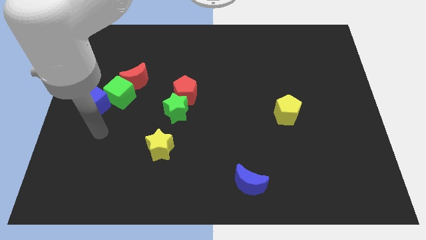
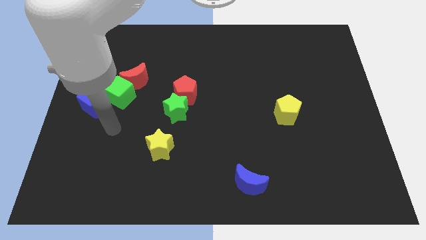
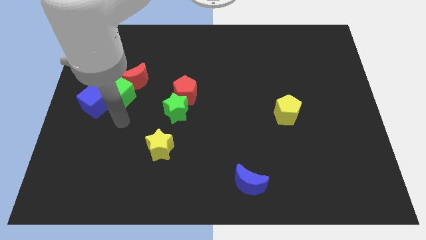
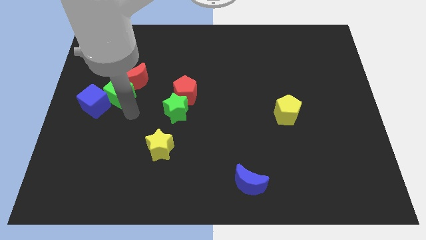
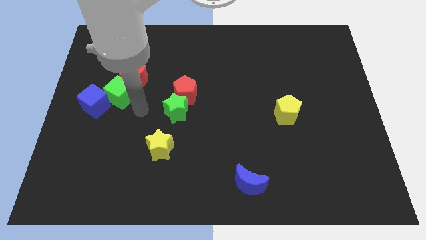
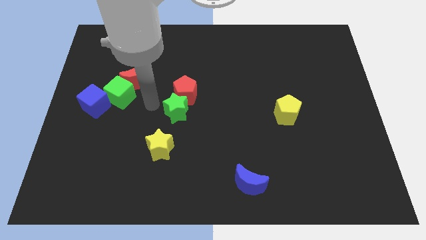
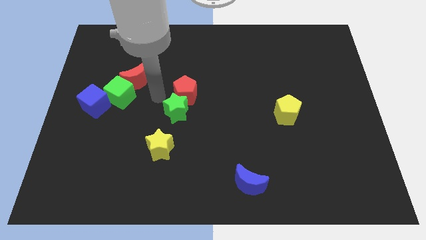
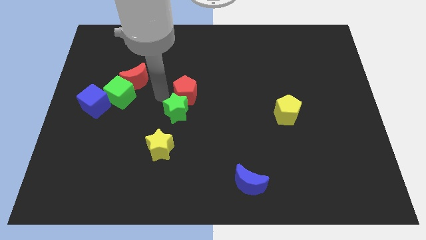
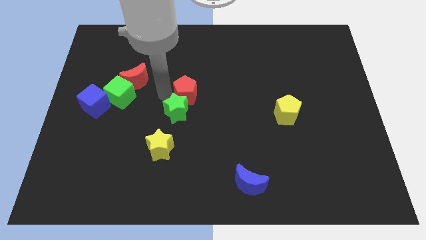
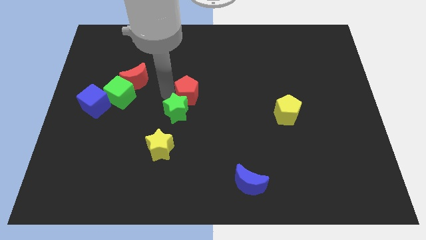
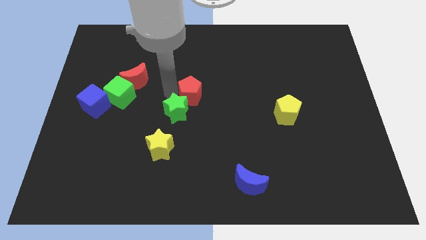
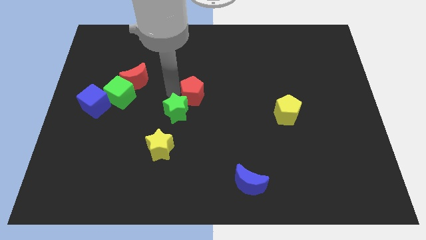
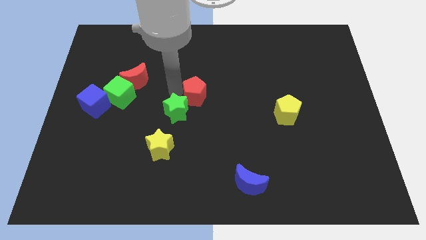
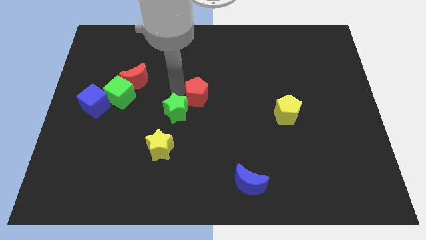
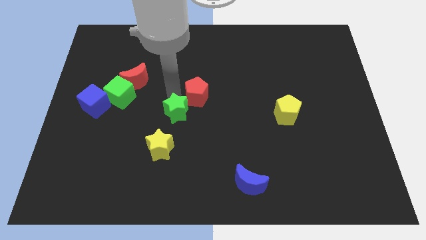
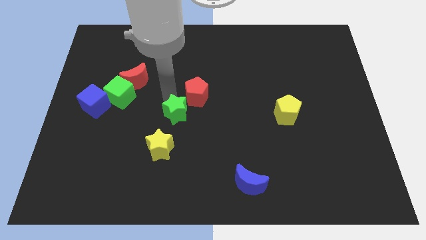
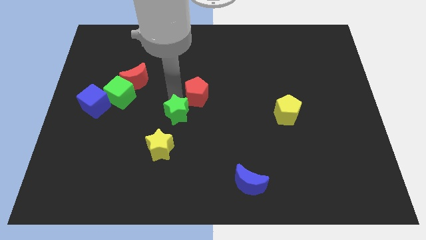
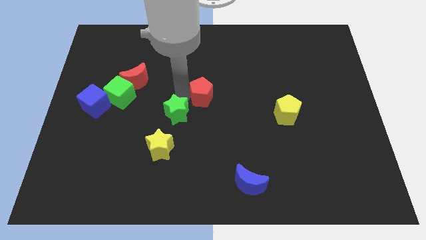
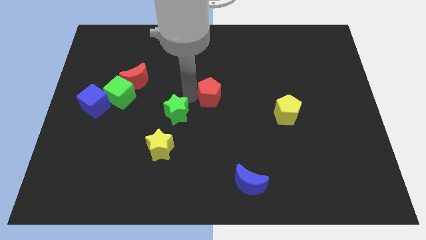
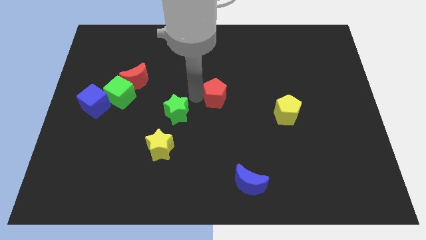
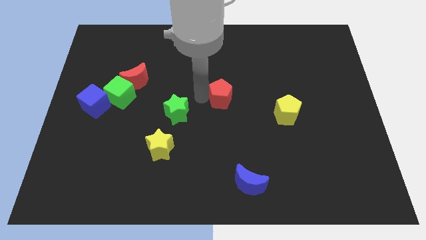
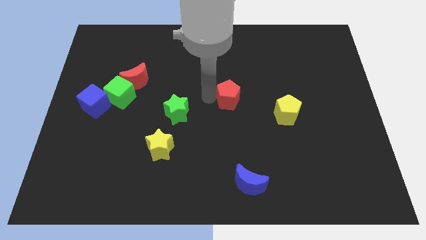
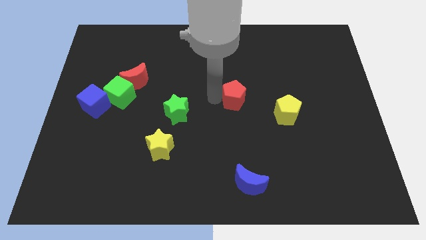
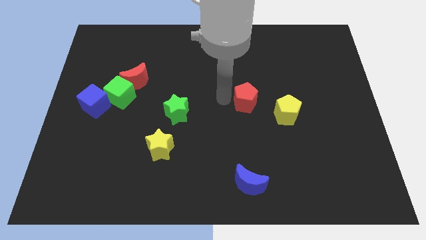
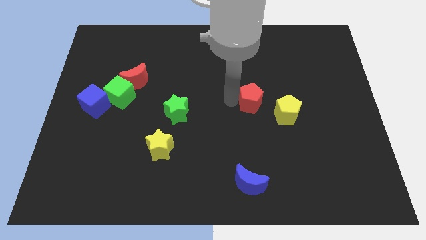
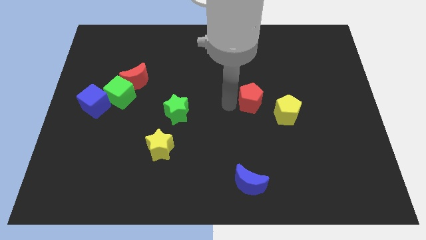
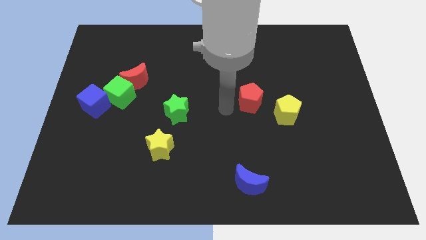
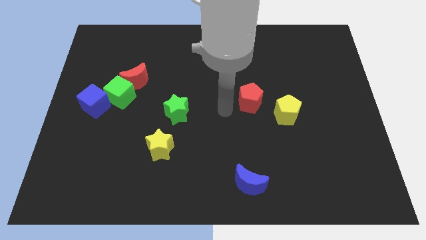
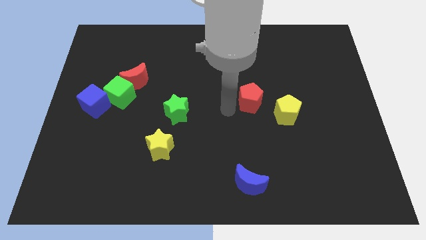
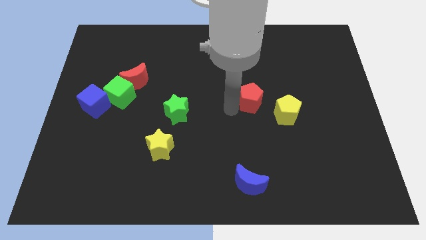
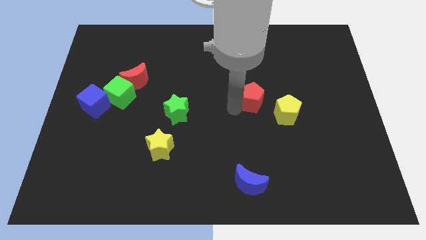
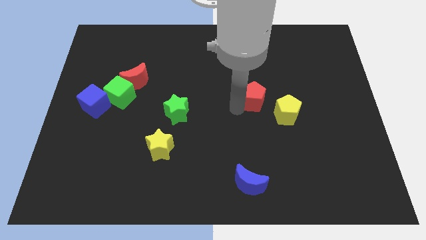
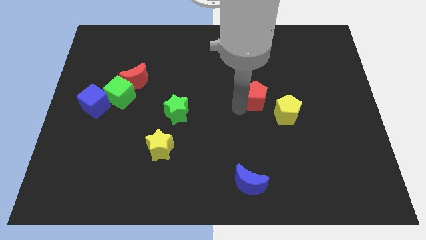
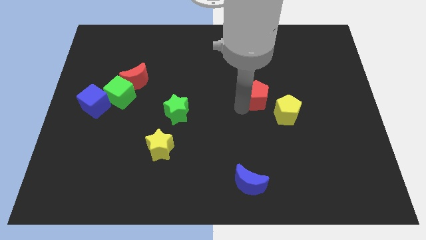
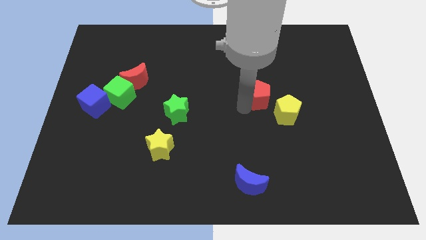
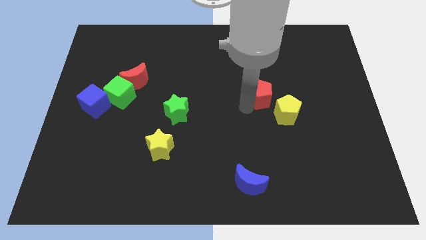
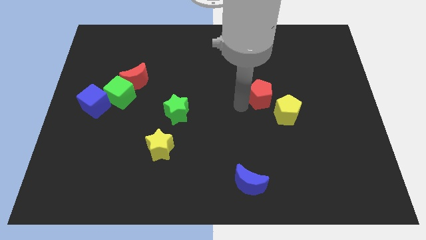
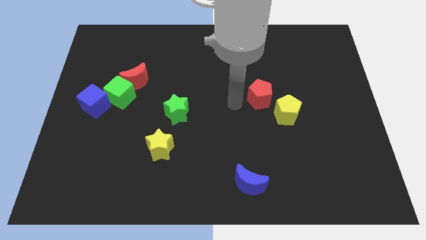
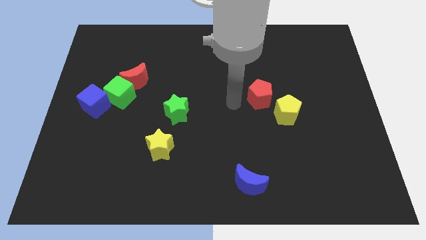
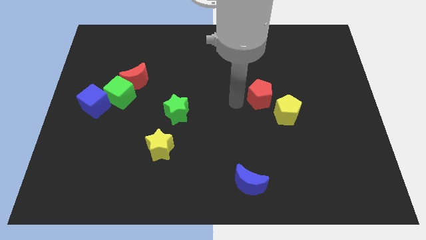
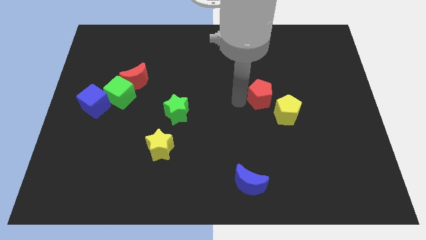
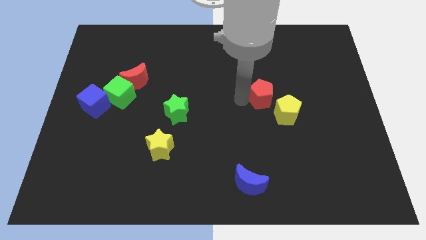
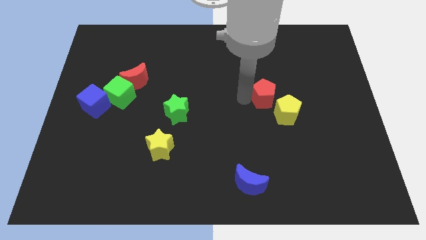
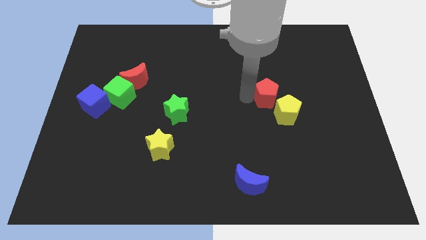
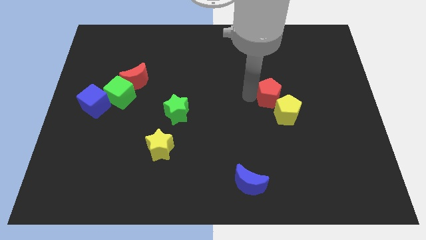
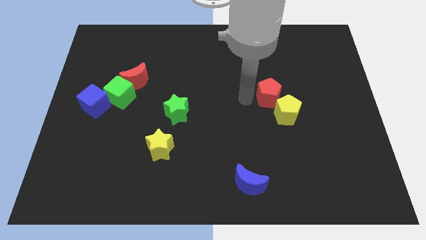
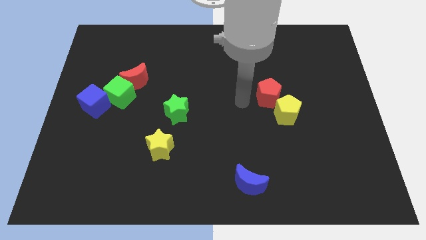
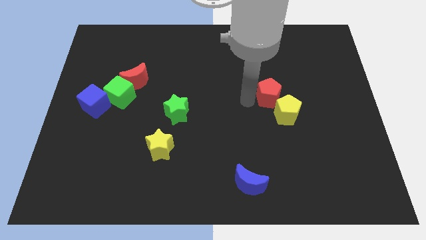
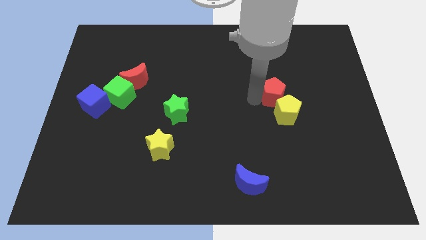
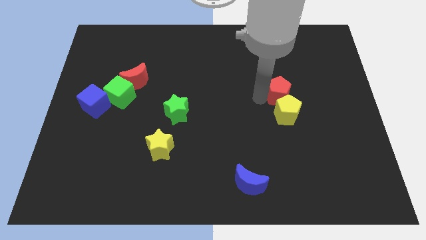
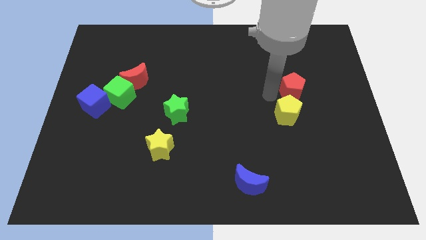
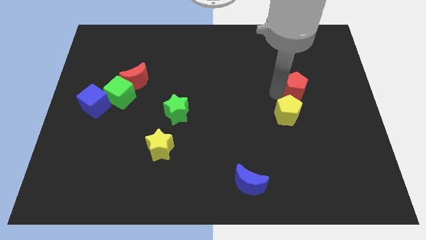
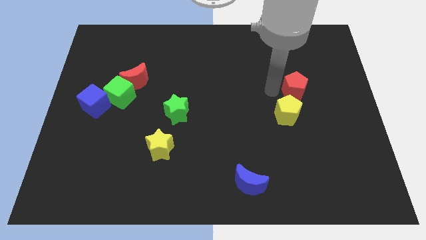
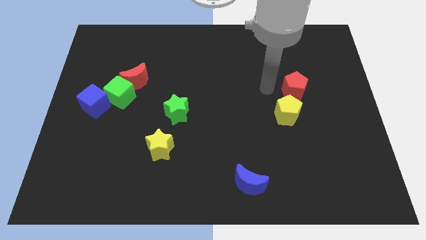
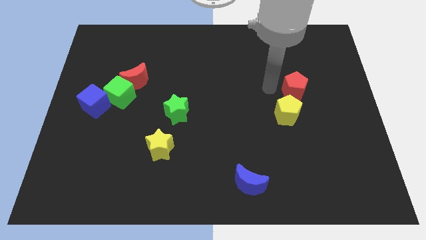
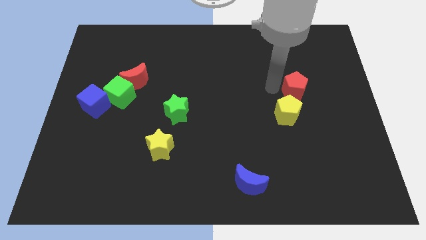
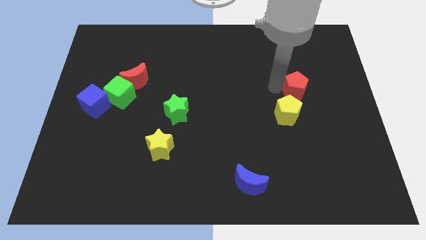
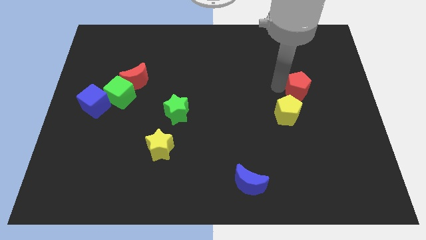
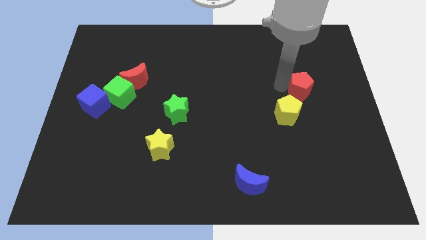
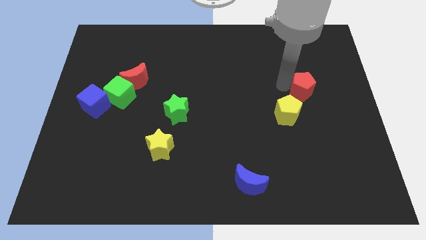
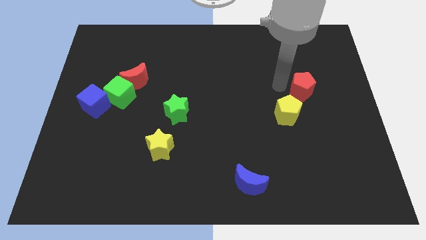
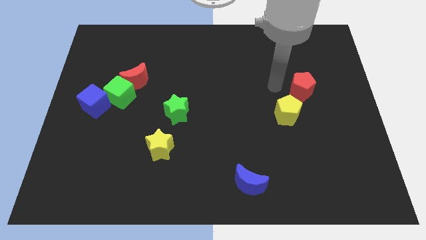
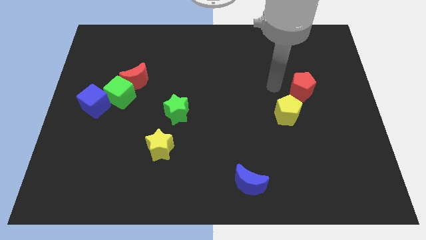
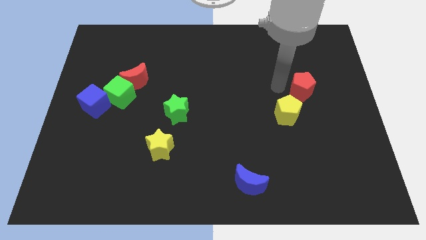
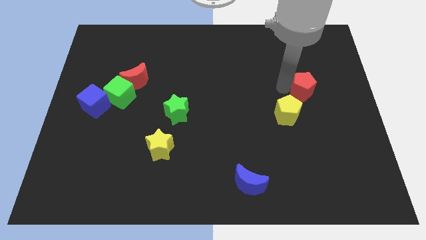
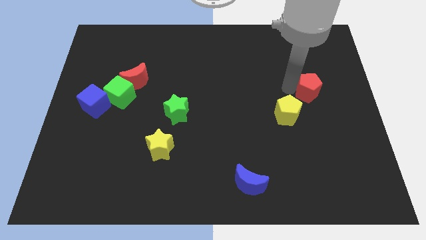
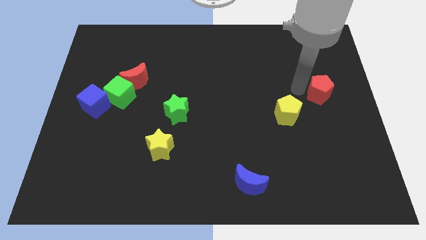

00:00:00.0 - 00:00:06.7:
slide the red pentagon to the right side

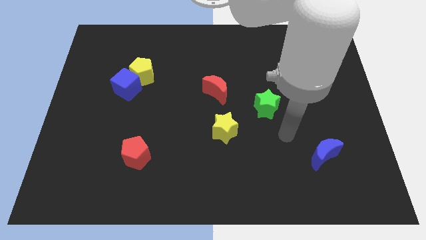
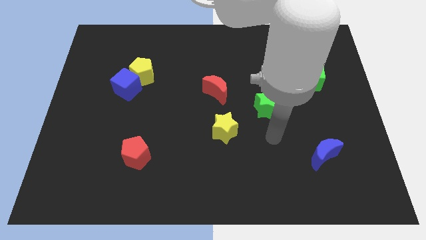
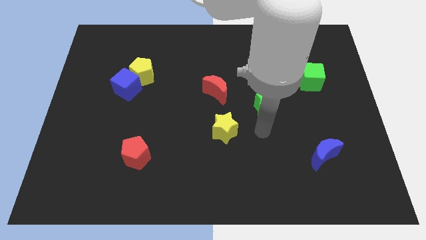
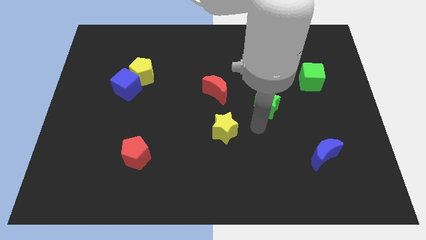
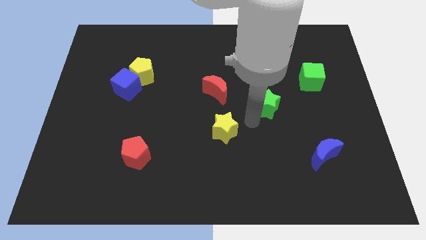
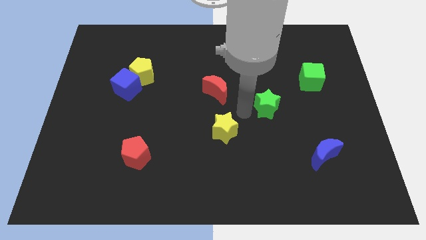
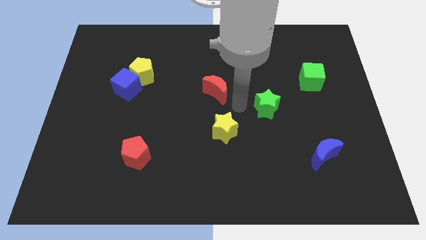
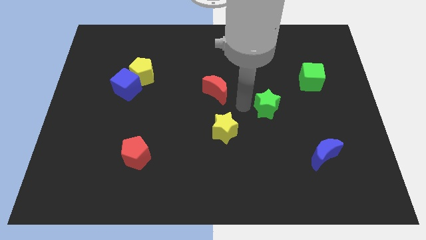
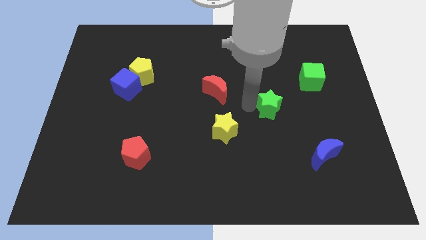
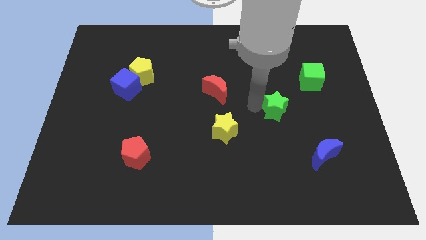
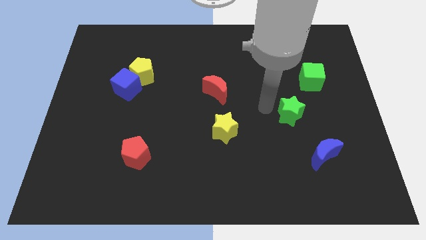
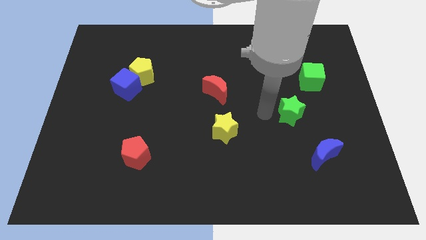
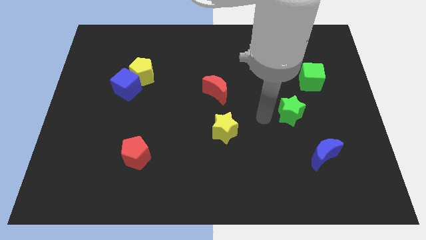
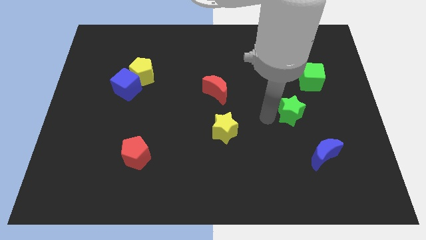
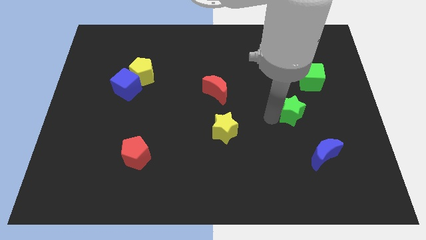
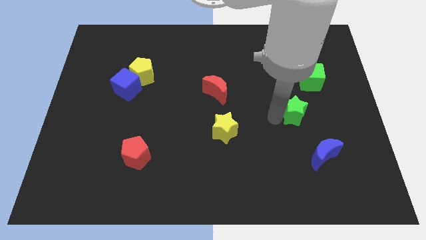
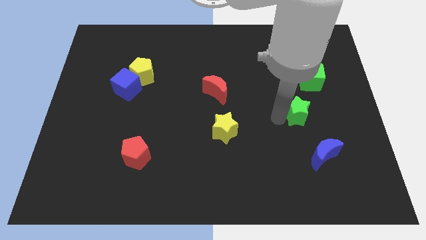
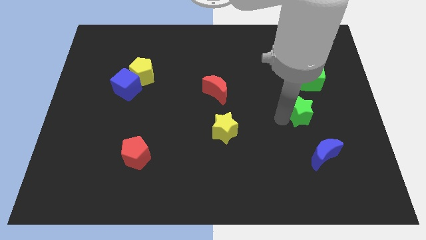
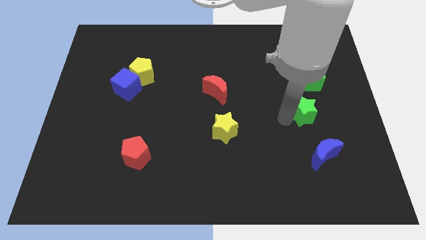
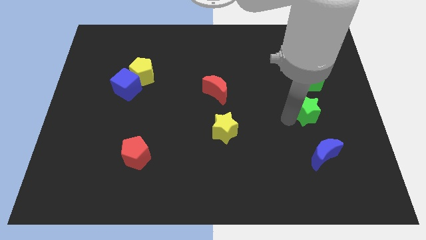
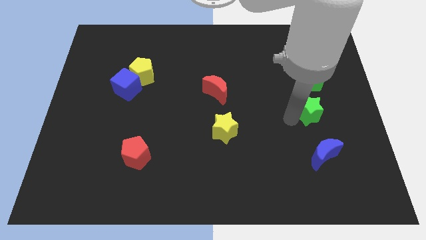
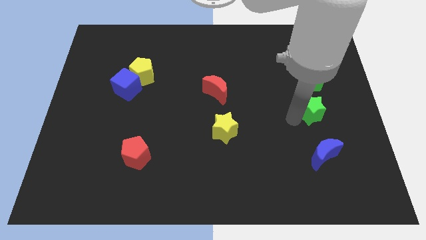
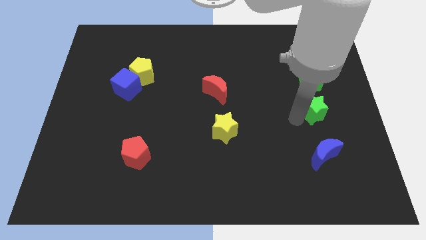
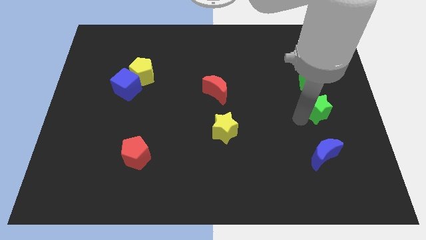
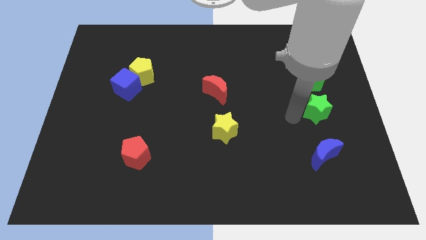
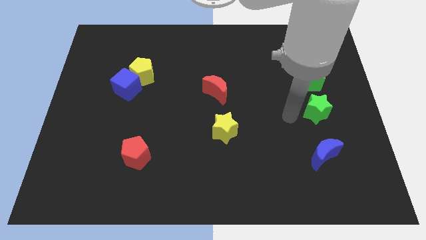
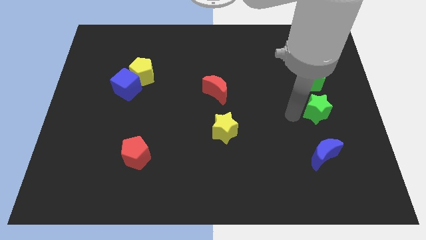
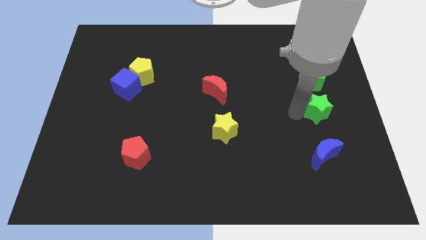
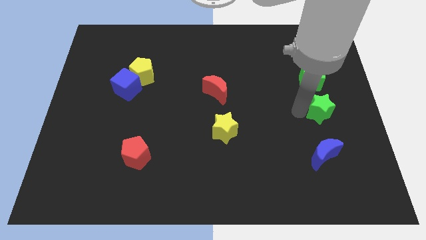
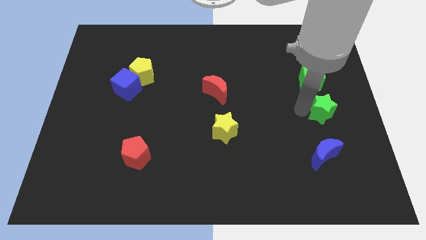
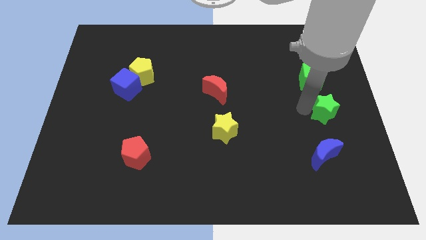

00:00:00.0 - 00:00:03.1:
move the green star to the center right
